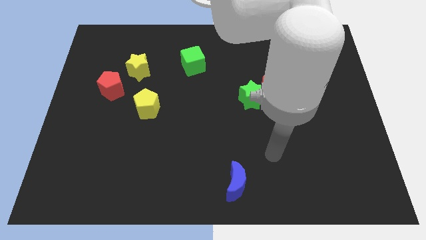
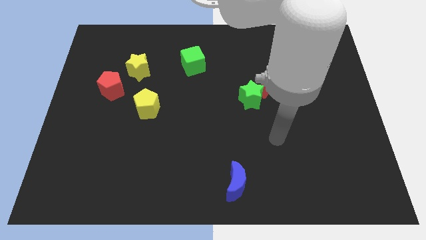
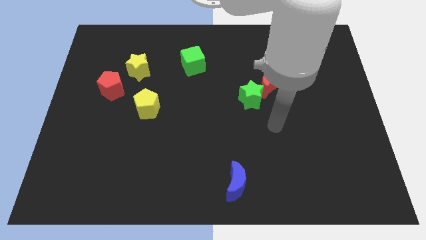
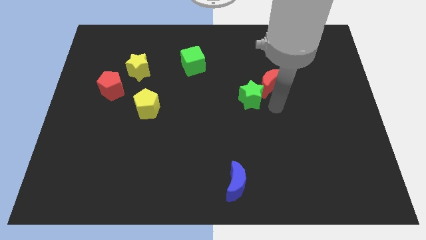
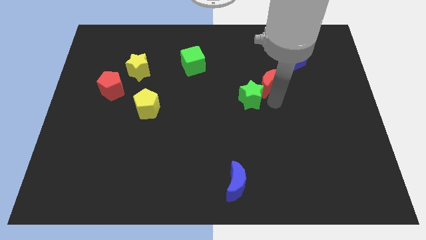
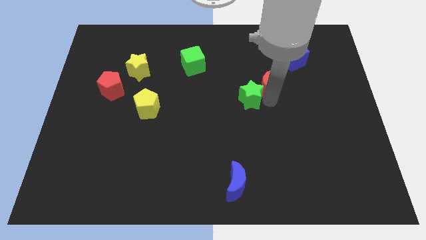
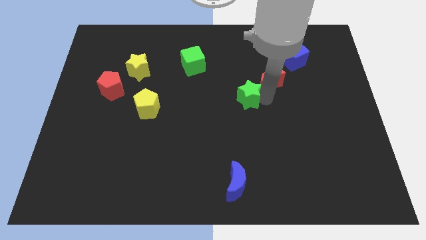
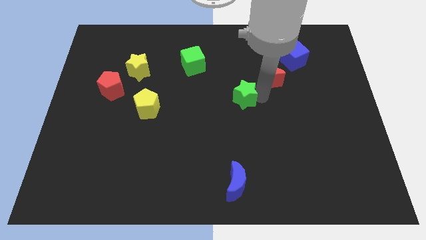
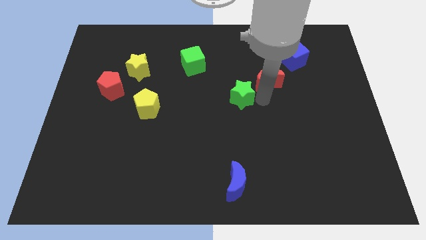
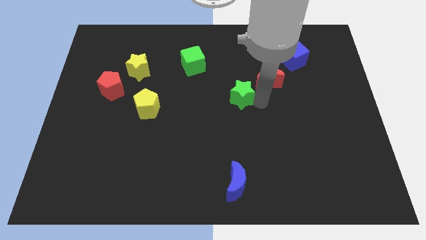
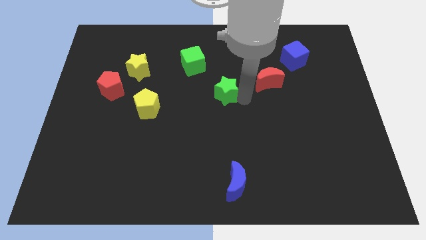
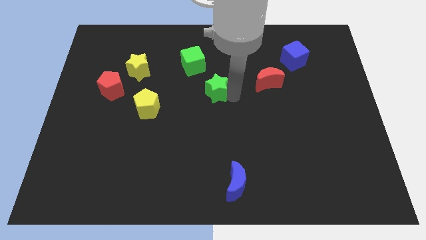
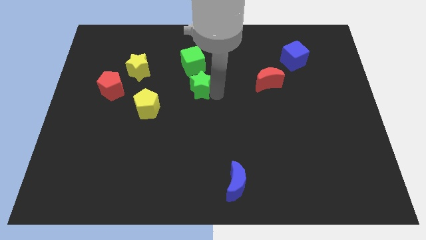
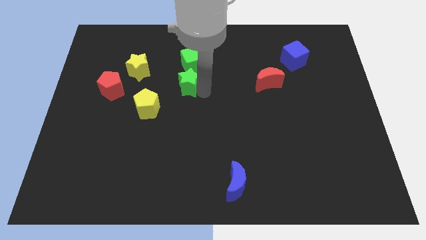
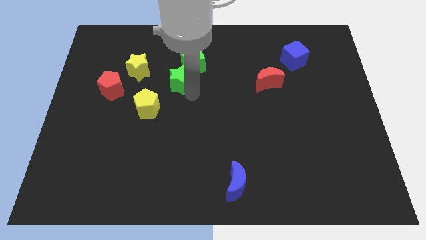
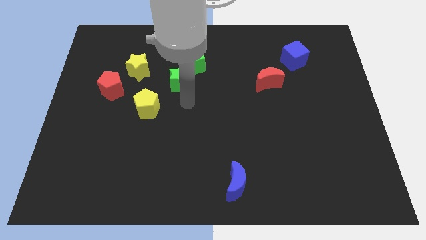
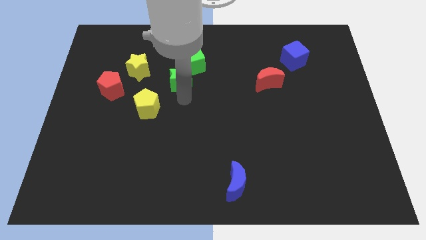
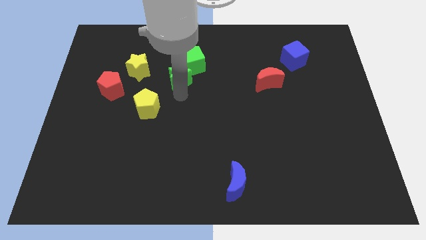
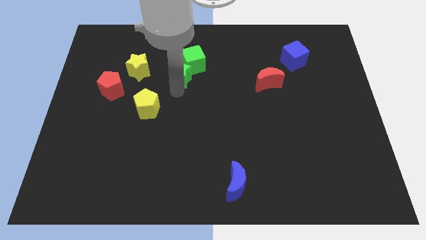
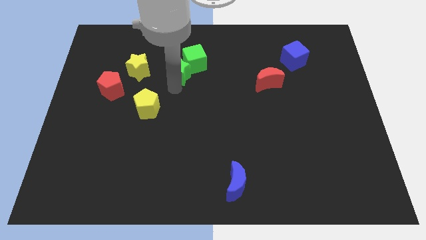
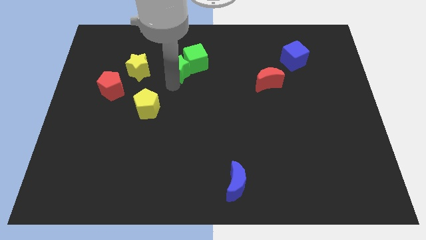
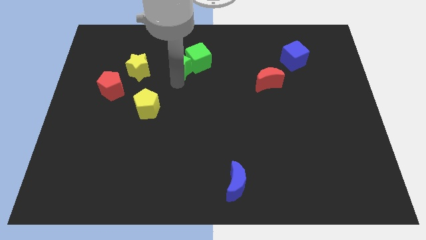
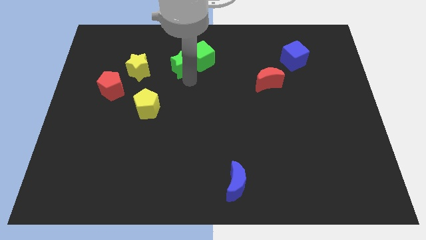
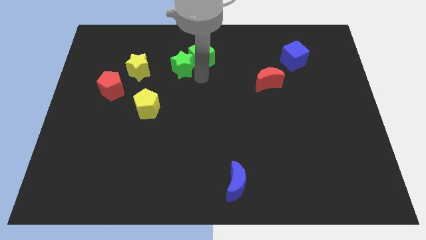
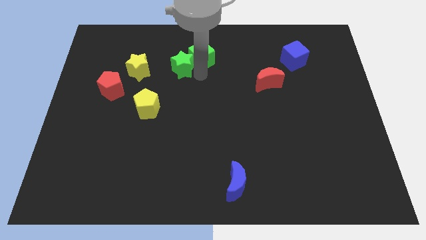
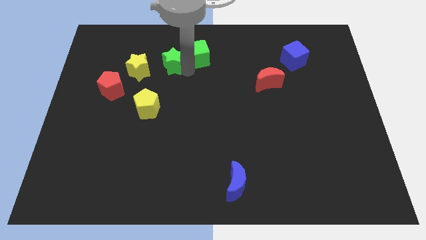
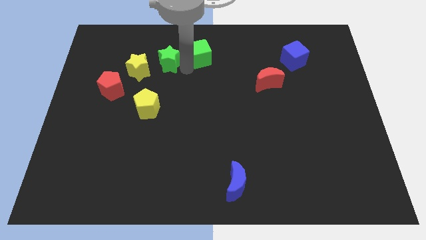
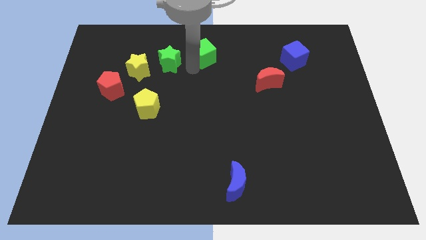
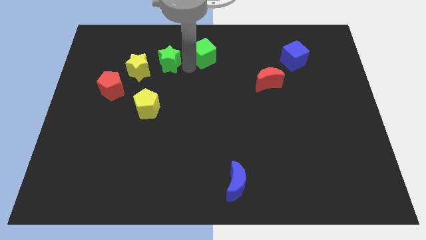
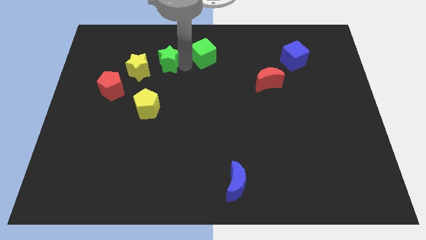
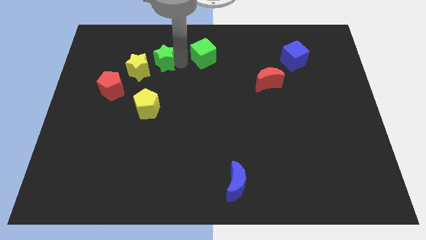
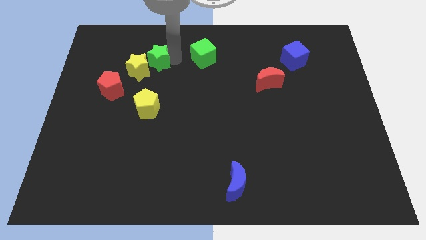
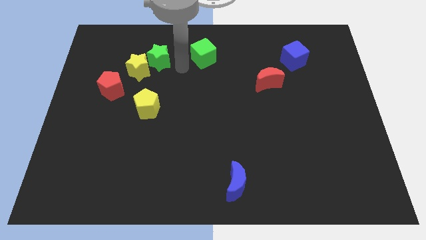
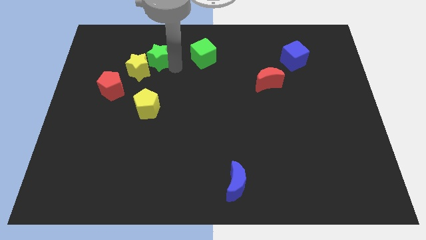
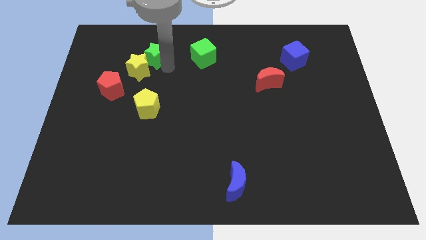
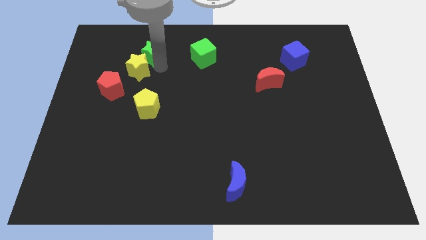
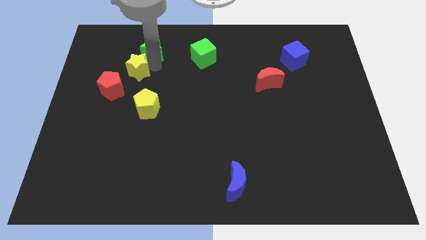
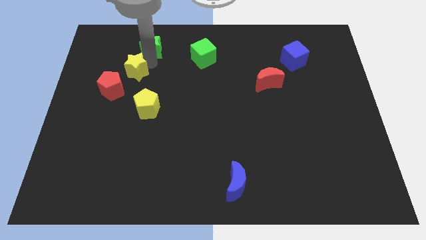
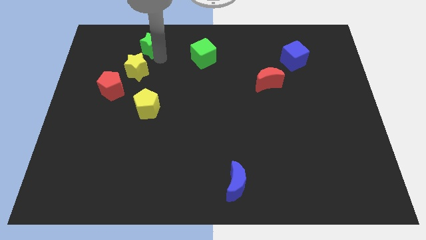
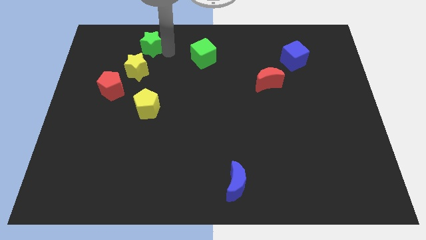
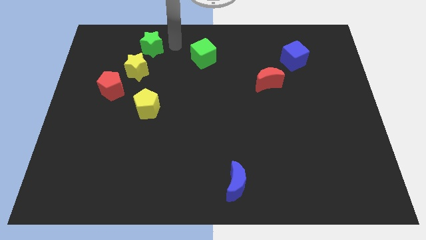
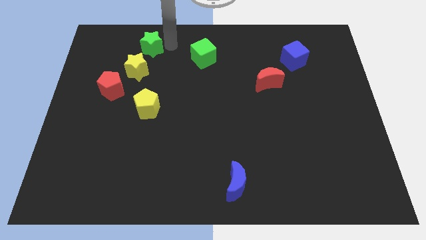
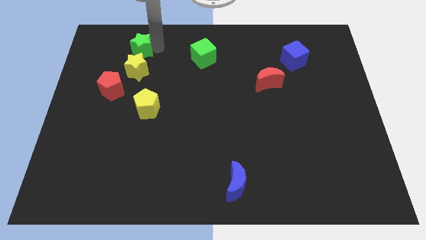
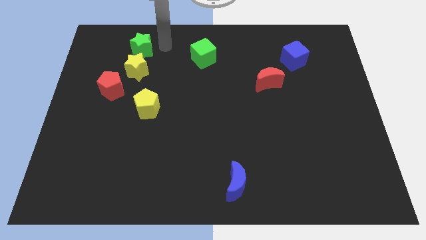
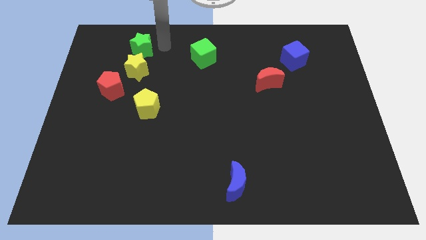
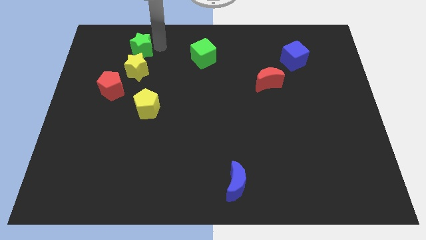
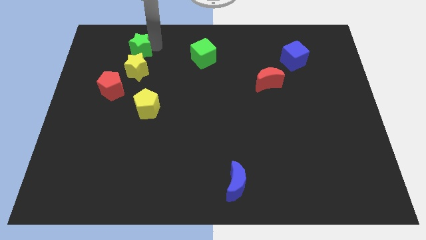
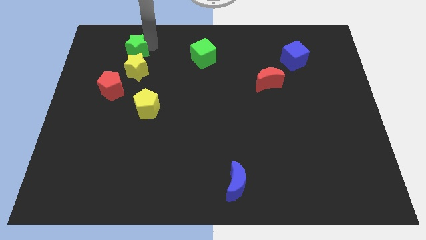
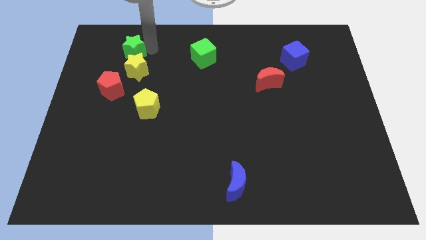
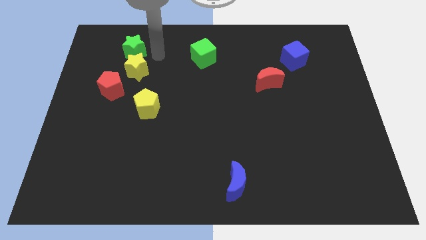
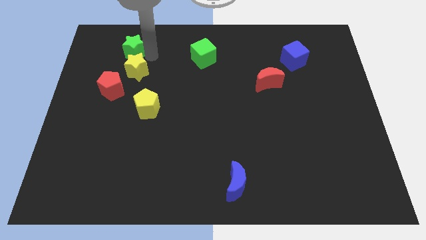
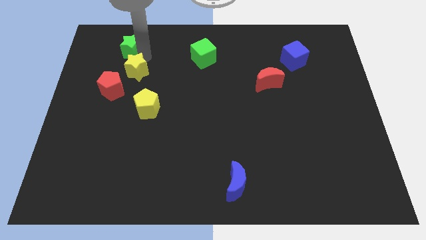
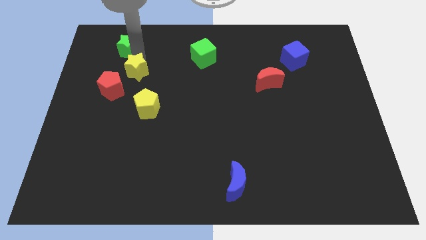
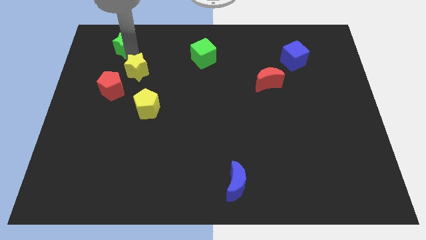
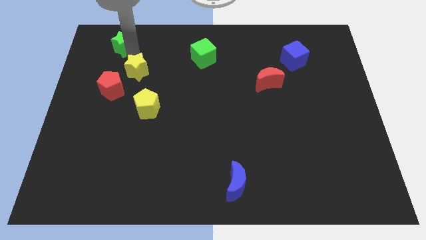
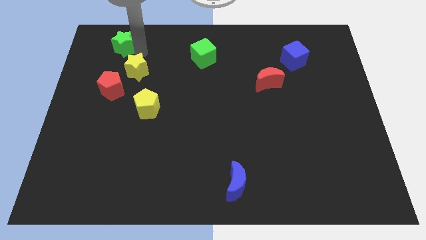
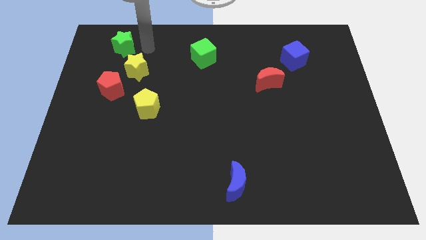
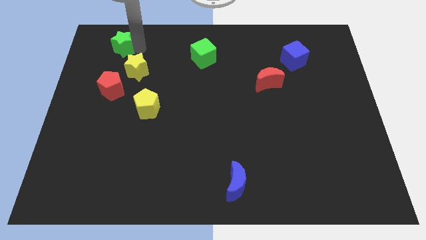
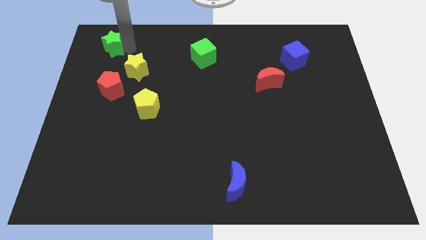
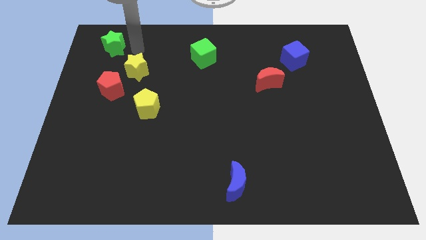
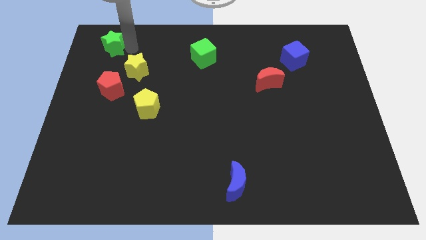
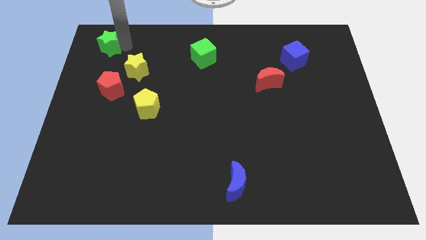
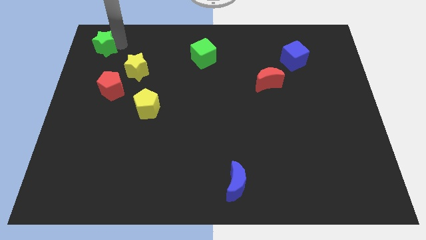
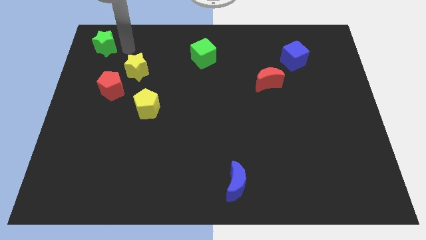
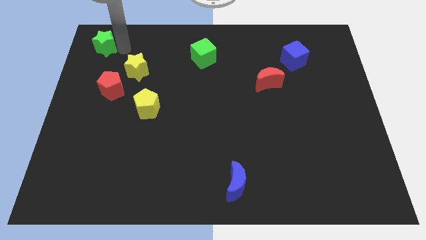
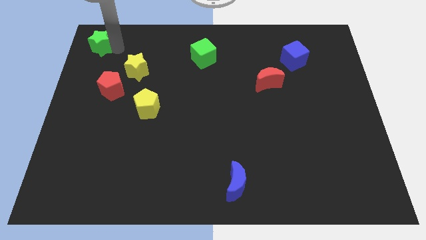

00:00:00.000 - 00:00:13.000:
push the green star to the top left of the board

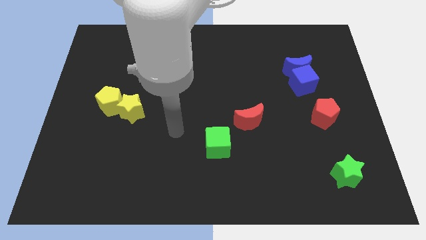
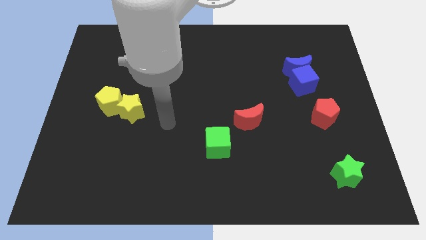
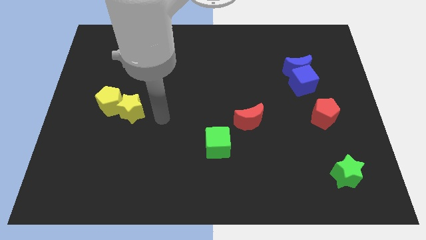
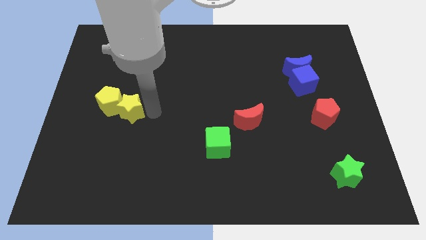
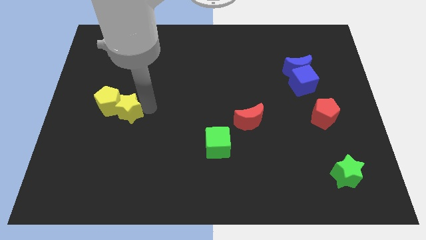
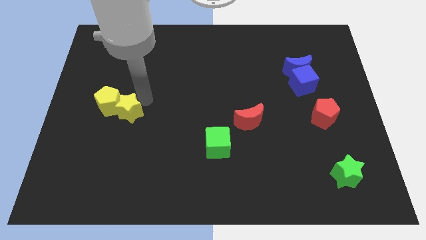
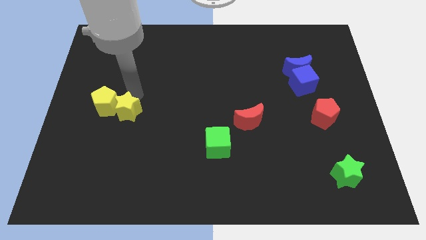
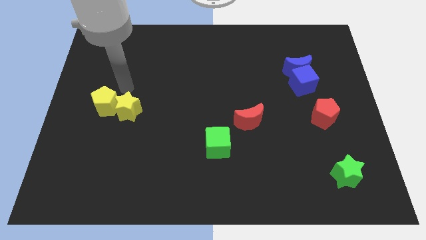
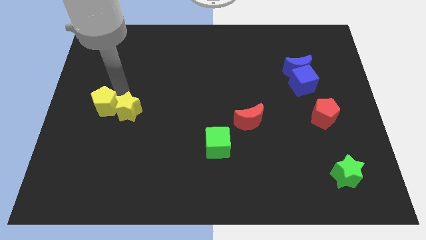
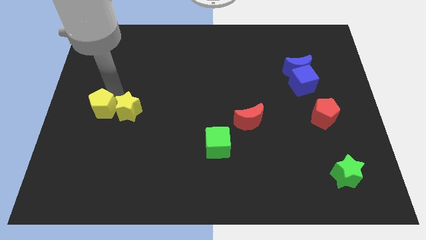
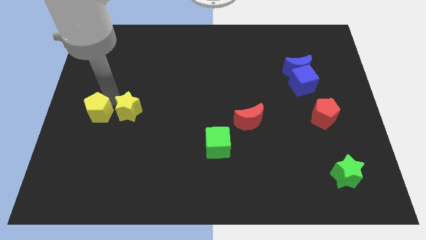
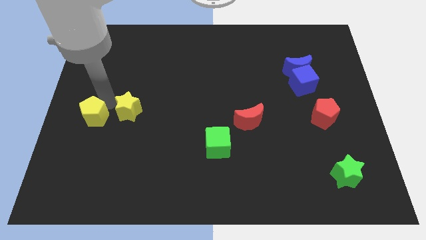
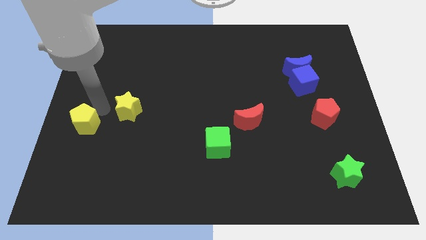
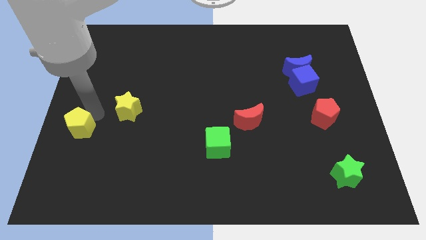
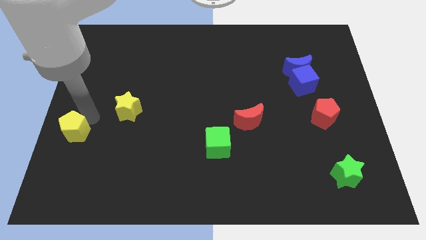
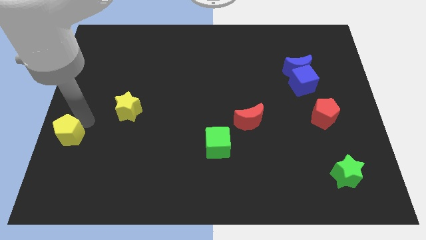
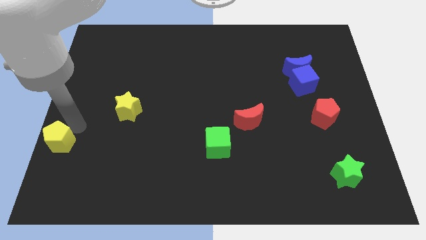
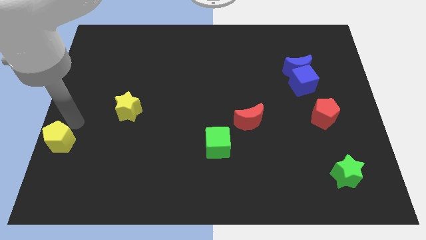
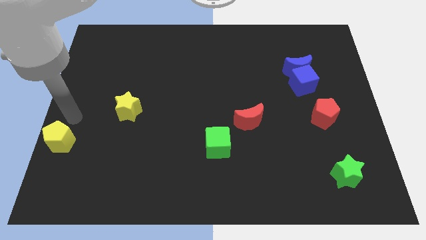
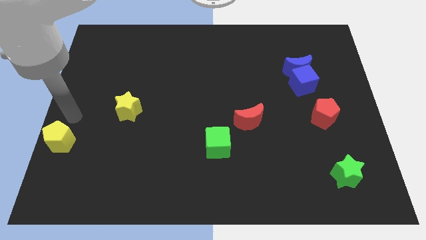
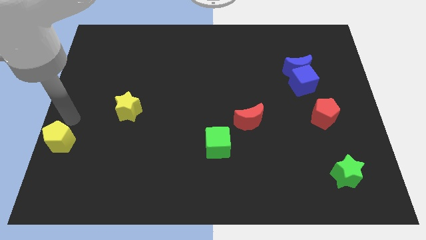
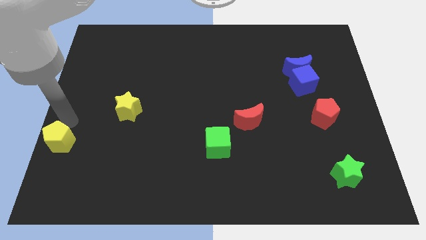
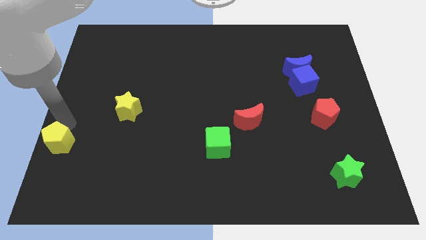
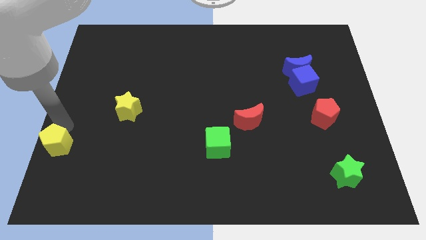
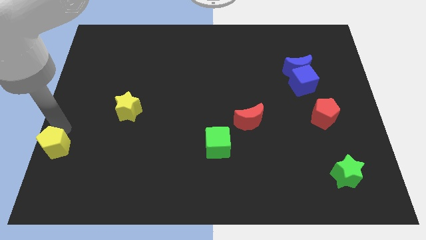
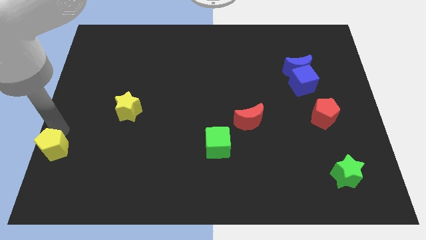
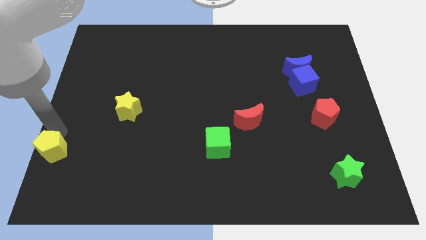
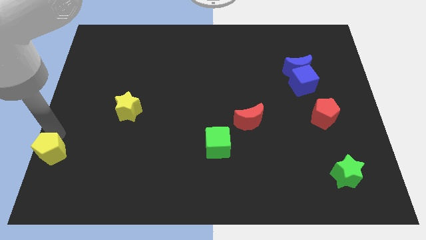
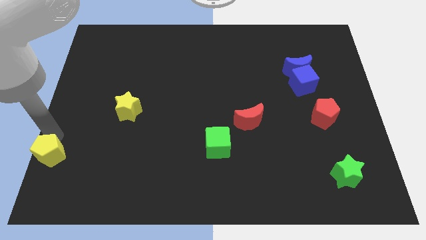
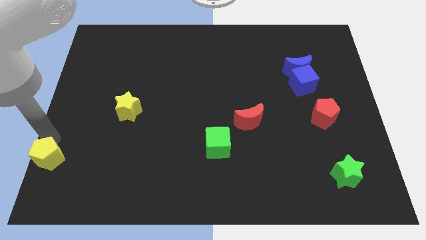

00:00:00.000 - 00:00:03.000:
push the yellow pentagon to the bottom left of the board
